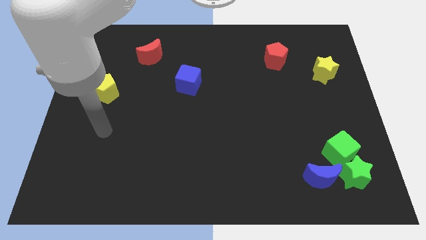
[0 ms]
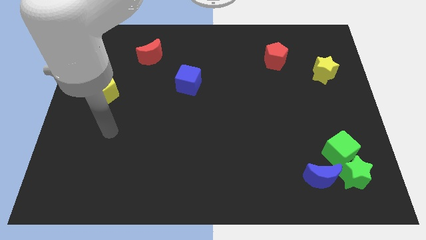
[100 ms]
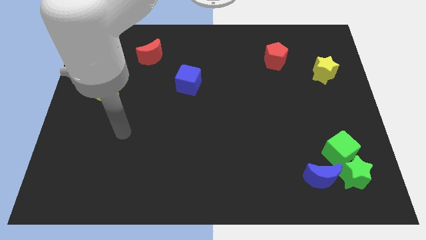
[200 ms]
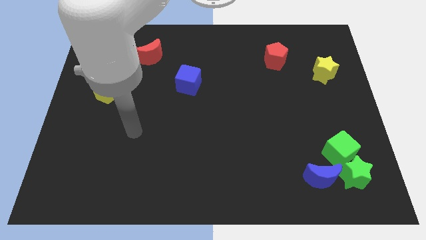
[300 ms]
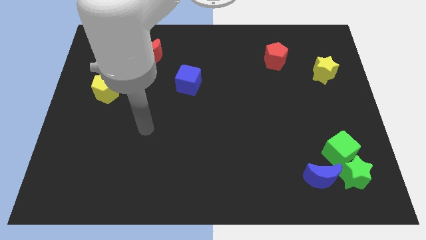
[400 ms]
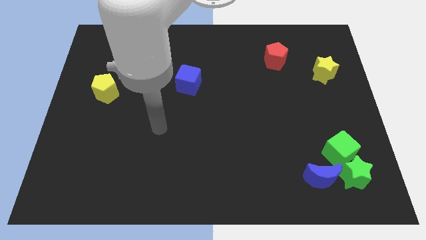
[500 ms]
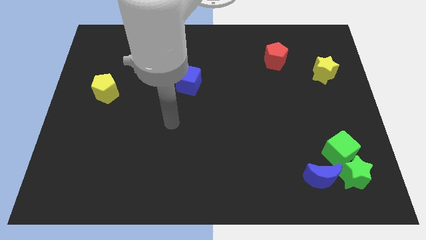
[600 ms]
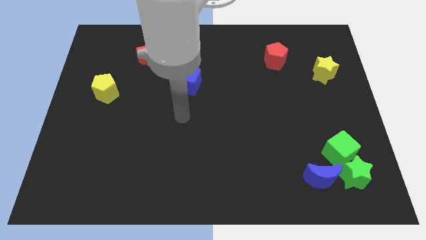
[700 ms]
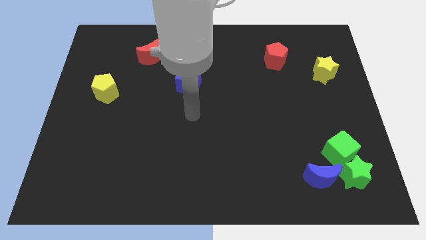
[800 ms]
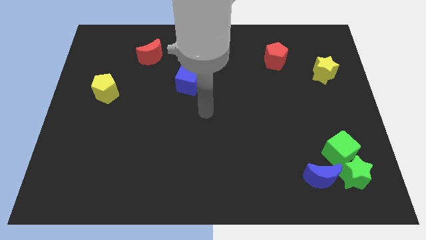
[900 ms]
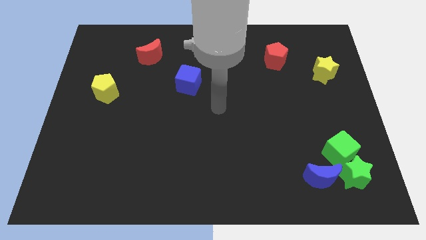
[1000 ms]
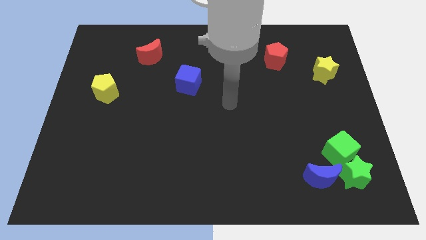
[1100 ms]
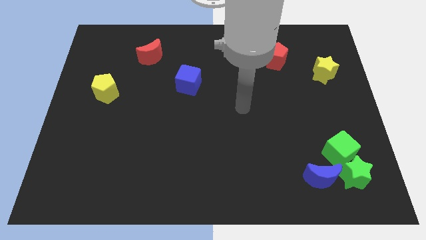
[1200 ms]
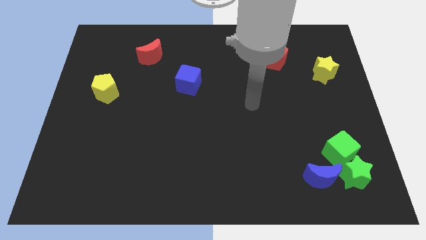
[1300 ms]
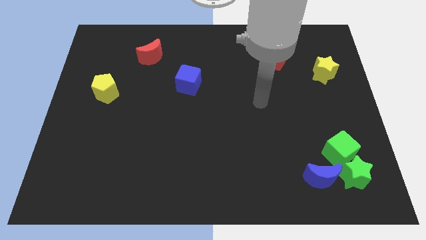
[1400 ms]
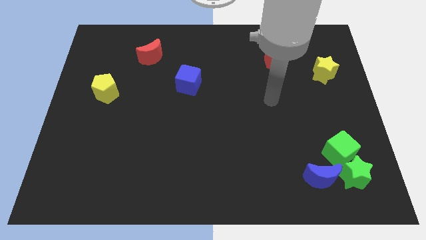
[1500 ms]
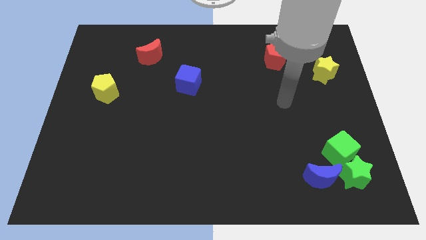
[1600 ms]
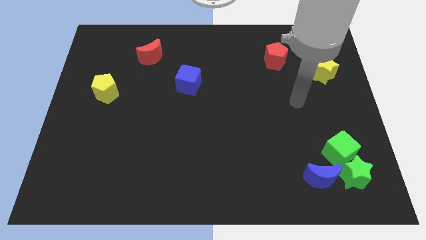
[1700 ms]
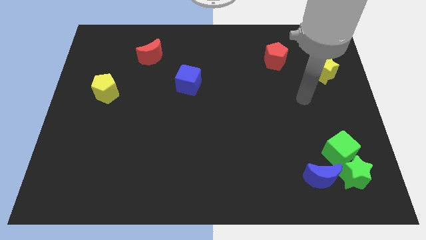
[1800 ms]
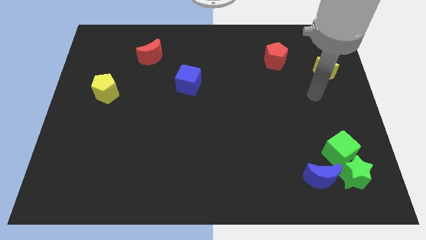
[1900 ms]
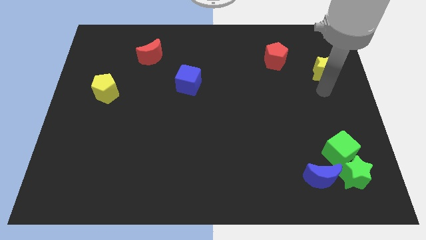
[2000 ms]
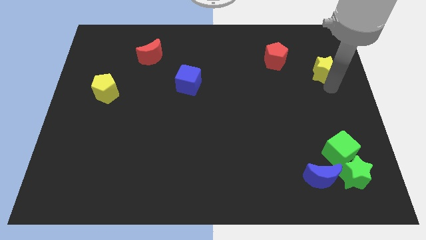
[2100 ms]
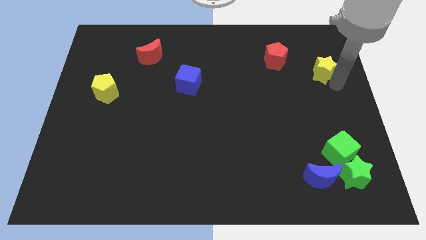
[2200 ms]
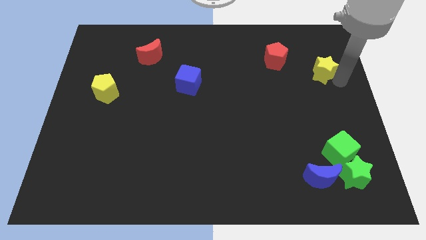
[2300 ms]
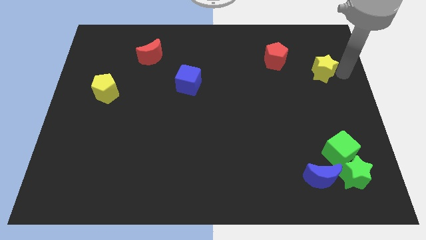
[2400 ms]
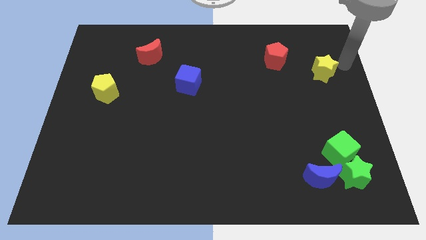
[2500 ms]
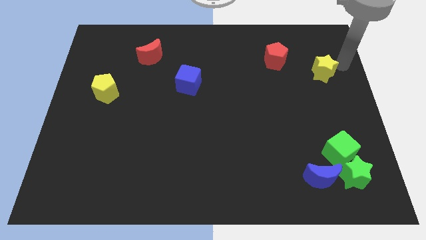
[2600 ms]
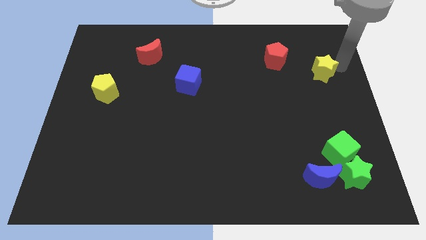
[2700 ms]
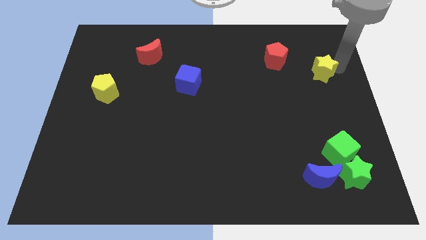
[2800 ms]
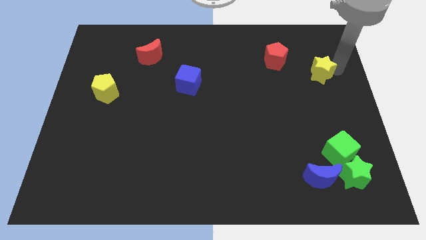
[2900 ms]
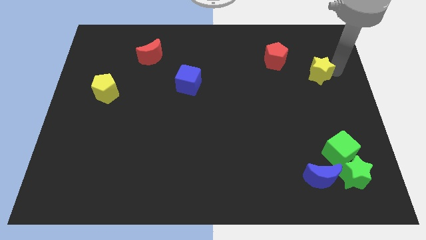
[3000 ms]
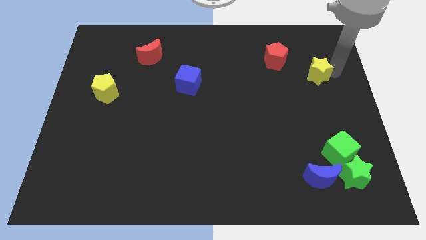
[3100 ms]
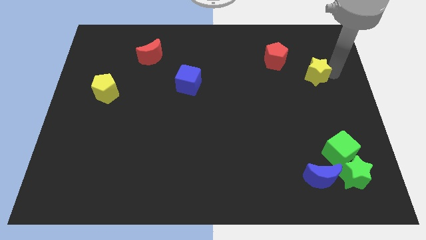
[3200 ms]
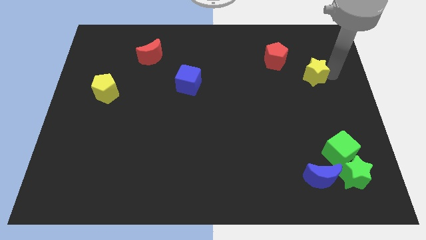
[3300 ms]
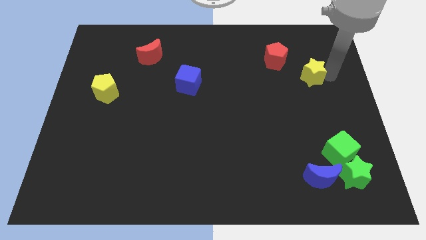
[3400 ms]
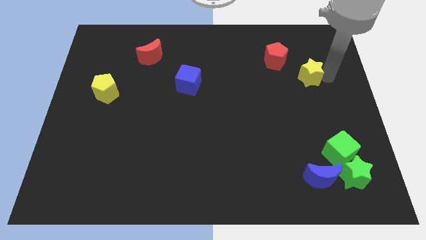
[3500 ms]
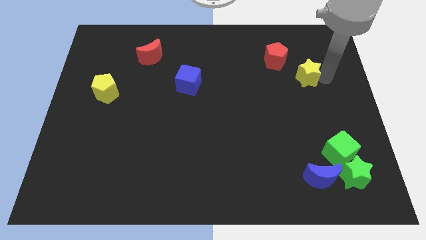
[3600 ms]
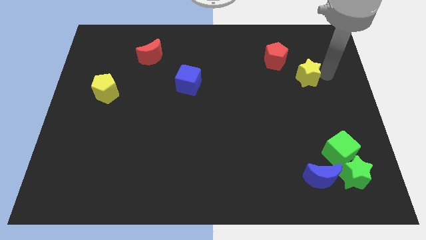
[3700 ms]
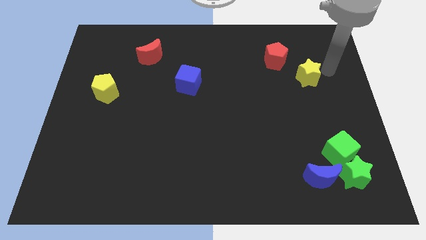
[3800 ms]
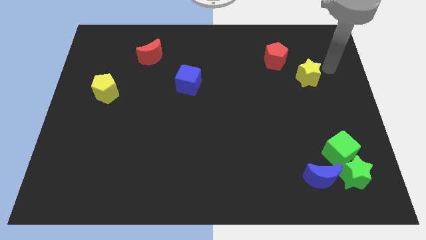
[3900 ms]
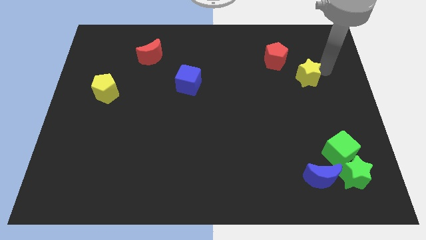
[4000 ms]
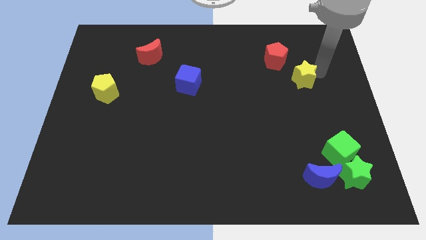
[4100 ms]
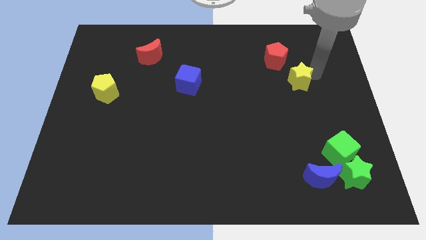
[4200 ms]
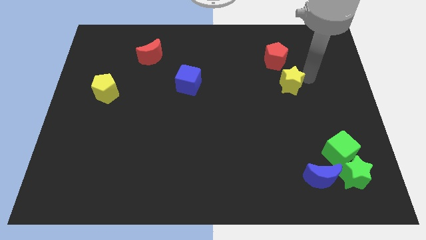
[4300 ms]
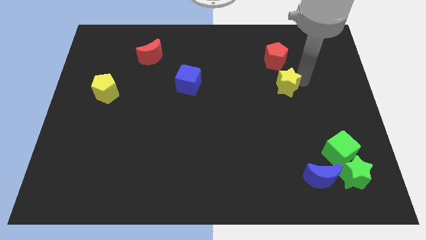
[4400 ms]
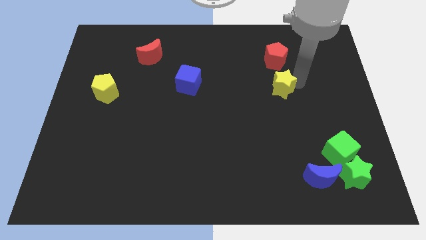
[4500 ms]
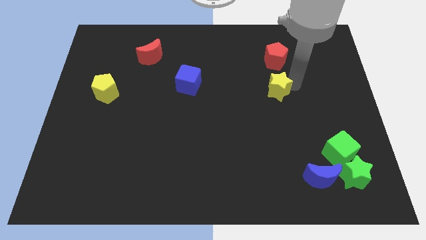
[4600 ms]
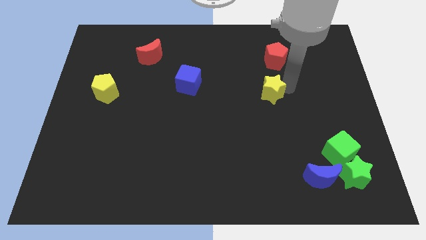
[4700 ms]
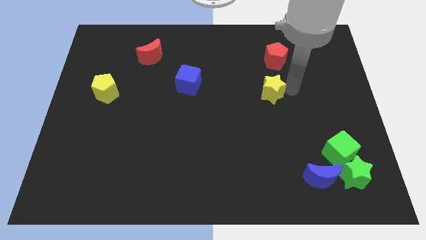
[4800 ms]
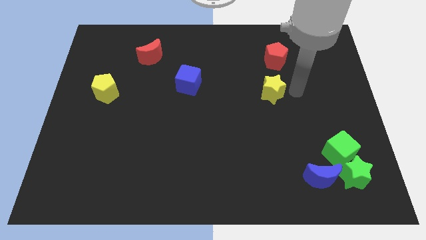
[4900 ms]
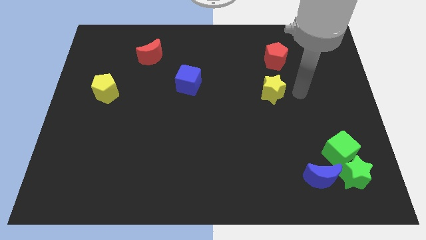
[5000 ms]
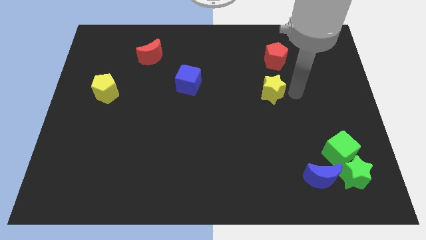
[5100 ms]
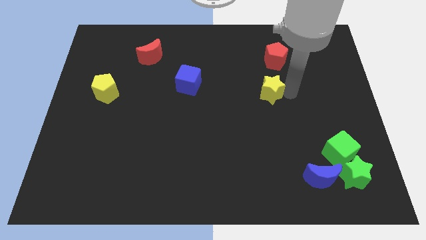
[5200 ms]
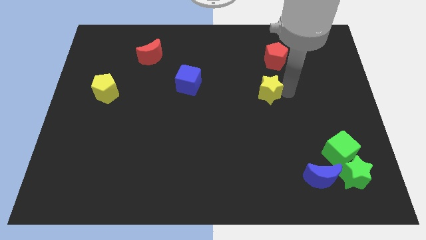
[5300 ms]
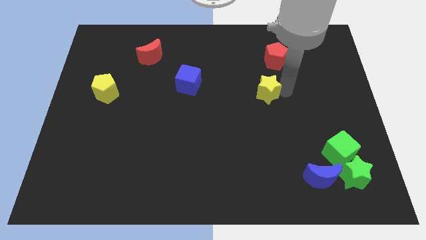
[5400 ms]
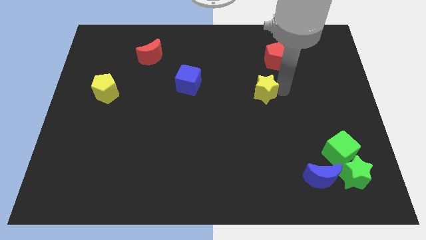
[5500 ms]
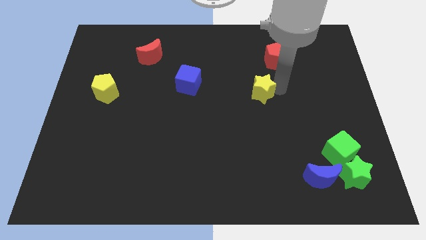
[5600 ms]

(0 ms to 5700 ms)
push the yellow star to the middle

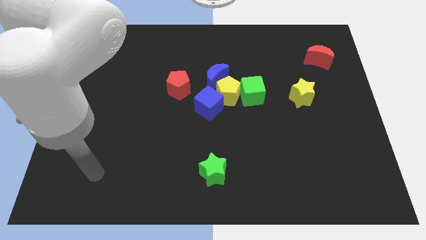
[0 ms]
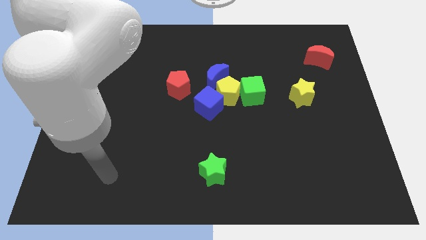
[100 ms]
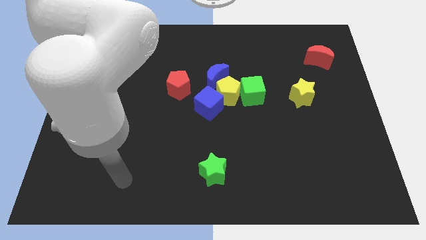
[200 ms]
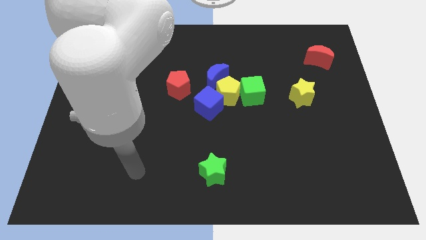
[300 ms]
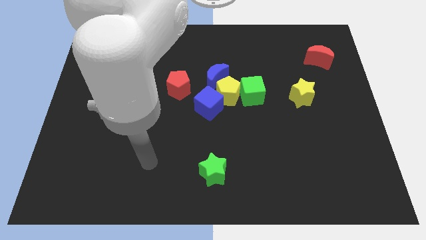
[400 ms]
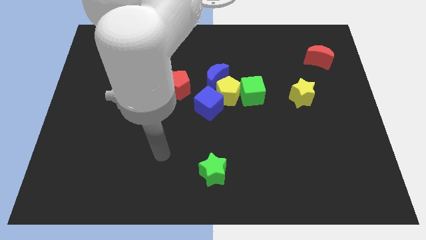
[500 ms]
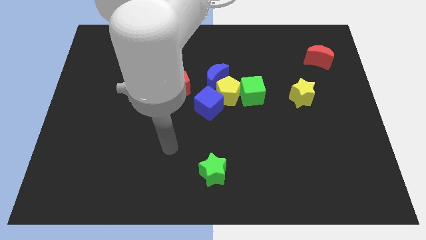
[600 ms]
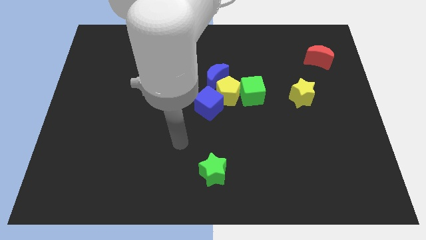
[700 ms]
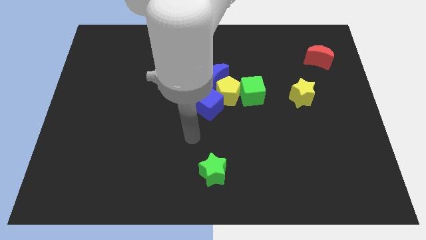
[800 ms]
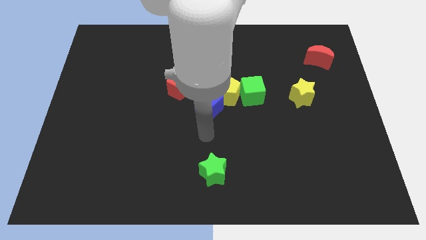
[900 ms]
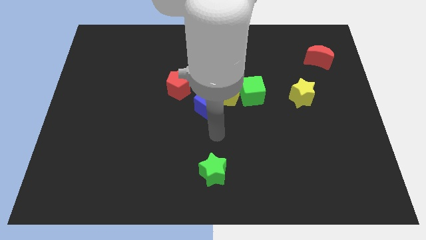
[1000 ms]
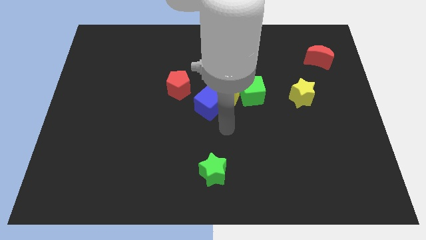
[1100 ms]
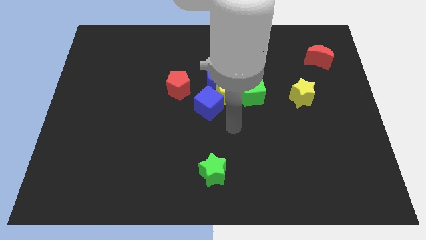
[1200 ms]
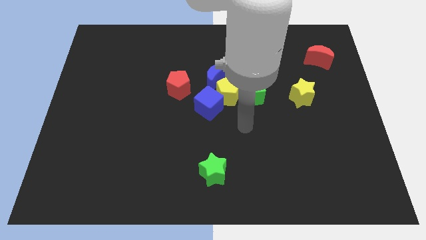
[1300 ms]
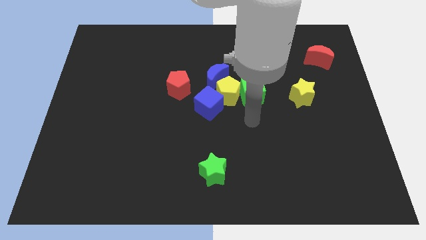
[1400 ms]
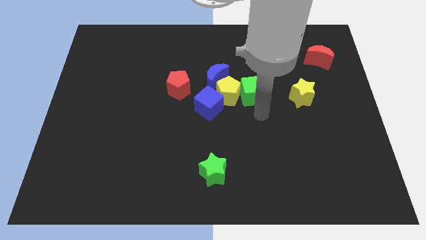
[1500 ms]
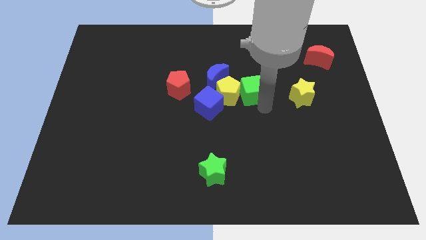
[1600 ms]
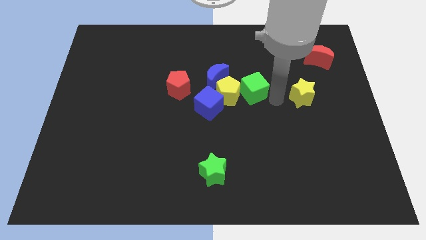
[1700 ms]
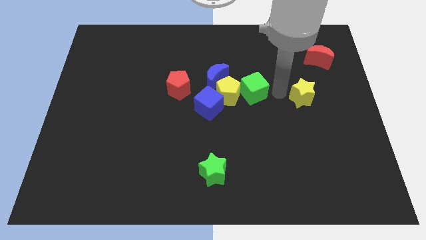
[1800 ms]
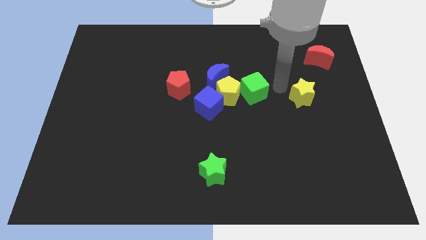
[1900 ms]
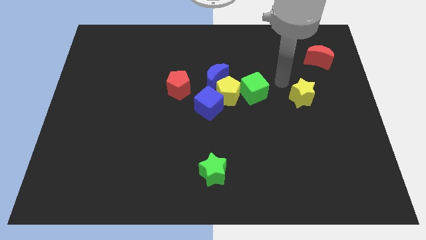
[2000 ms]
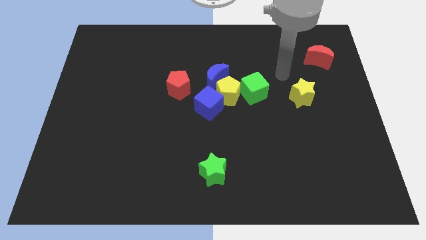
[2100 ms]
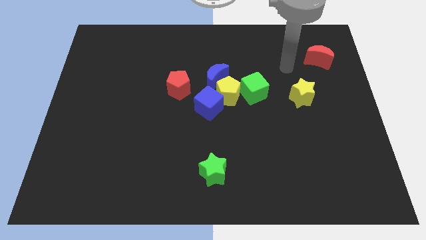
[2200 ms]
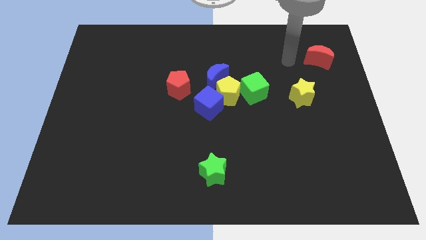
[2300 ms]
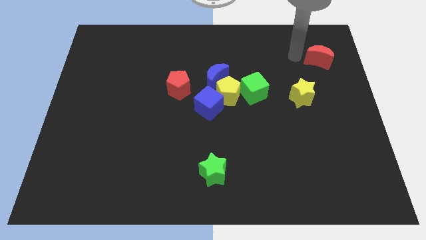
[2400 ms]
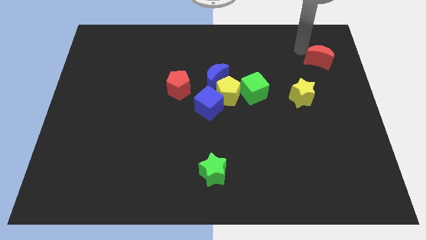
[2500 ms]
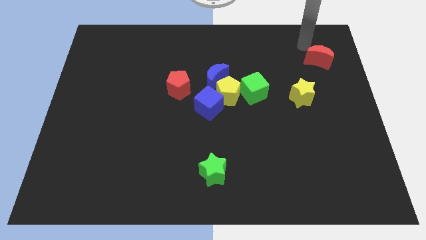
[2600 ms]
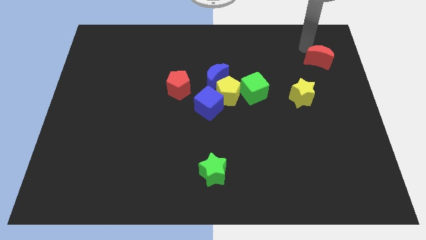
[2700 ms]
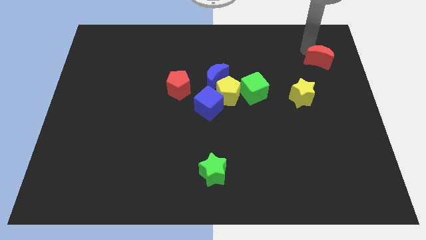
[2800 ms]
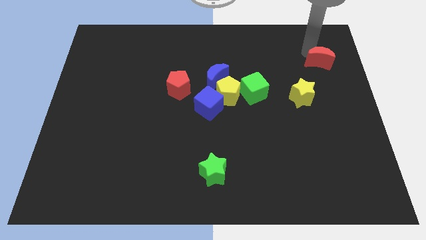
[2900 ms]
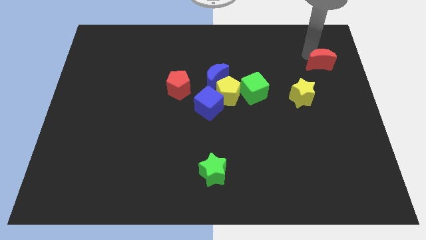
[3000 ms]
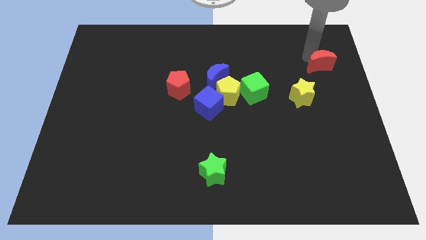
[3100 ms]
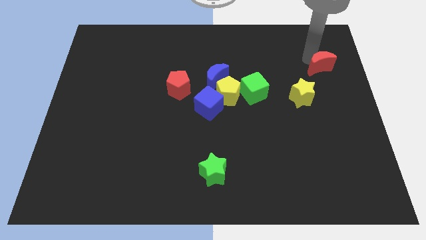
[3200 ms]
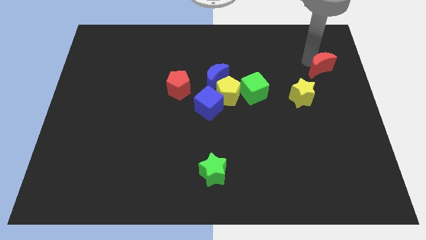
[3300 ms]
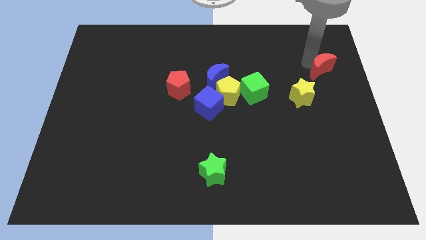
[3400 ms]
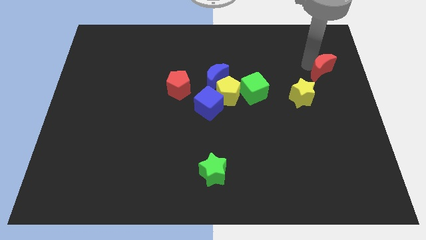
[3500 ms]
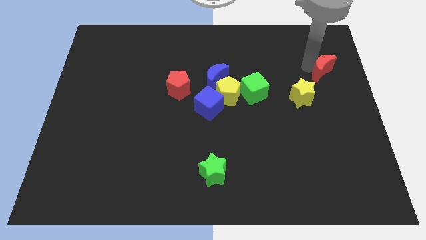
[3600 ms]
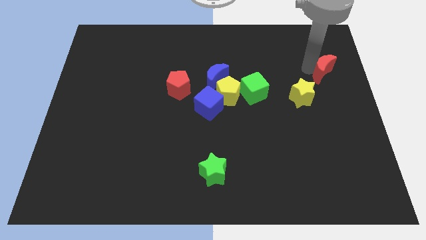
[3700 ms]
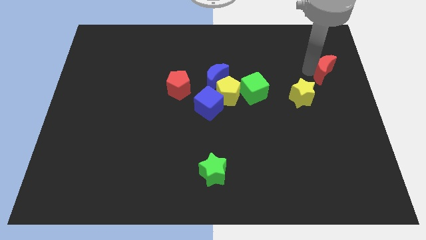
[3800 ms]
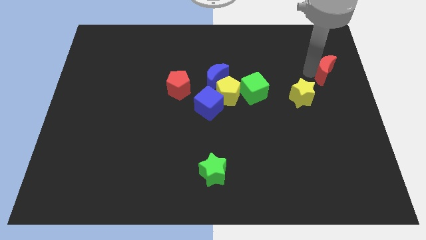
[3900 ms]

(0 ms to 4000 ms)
move the red moon to the center right
